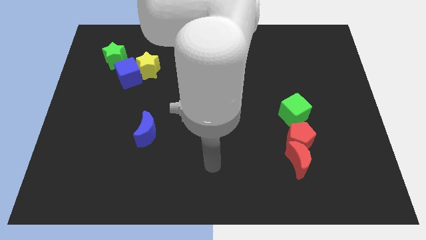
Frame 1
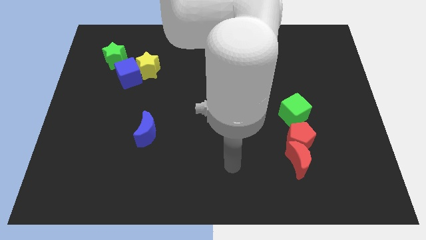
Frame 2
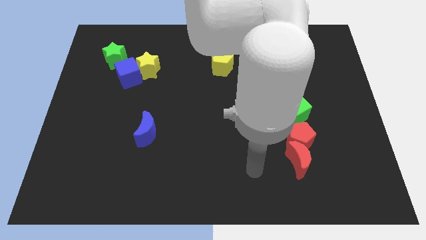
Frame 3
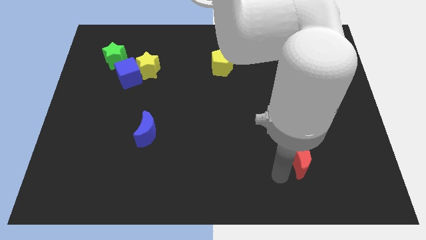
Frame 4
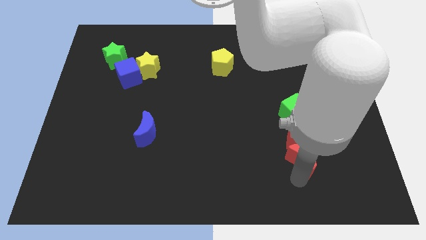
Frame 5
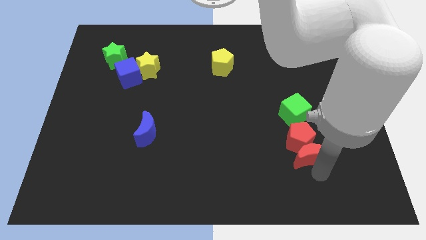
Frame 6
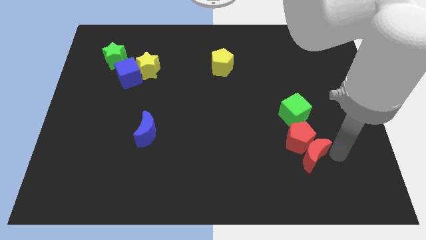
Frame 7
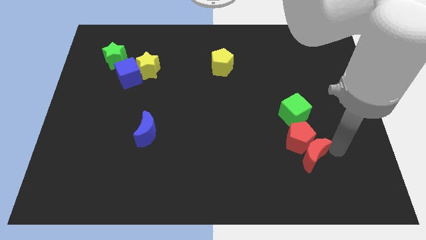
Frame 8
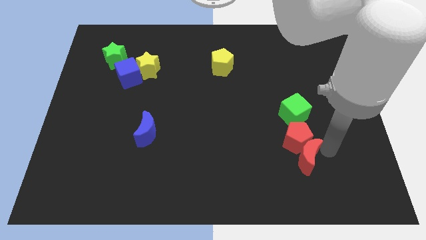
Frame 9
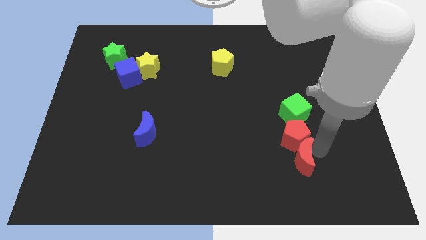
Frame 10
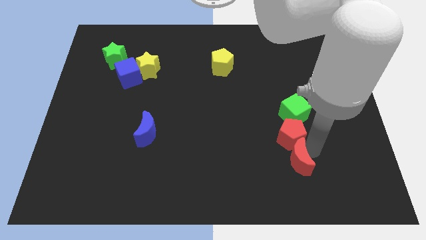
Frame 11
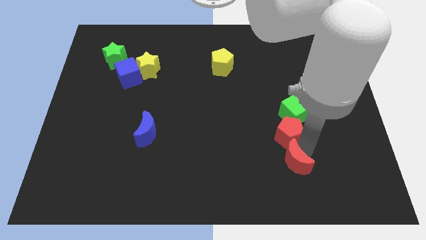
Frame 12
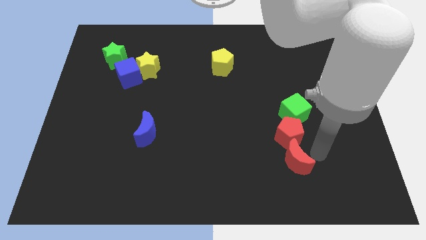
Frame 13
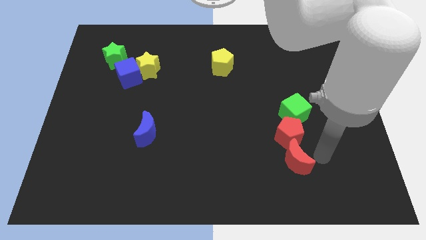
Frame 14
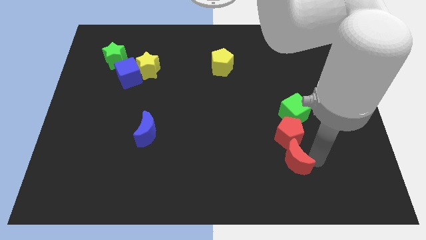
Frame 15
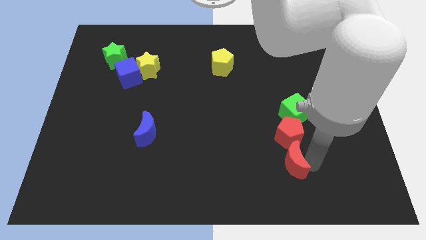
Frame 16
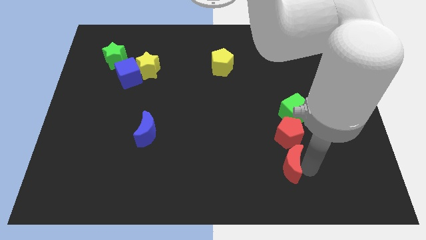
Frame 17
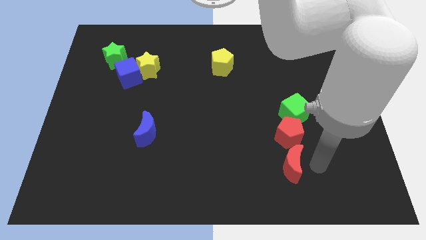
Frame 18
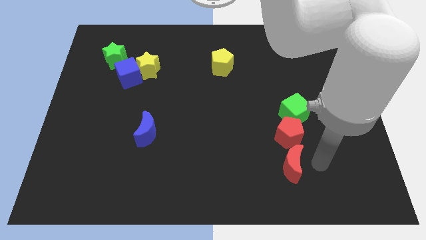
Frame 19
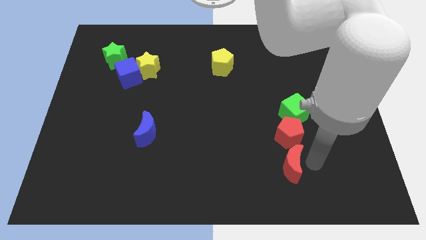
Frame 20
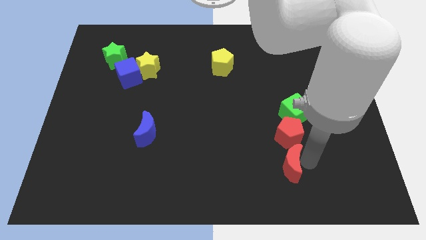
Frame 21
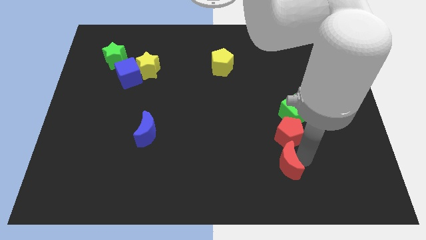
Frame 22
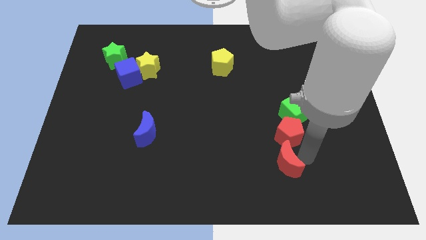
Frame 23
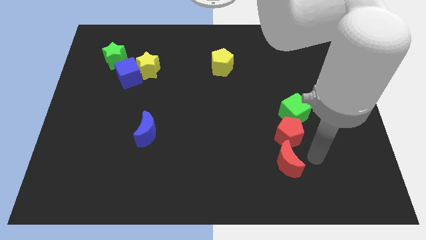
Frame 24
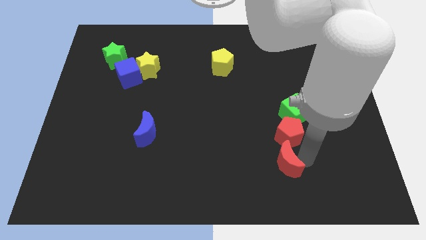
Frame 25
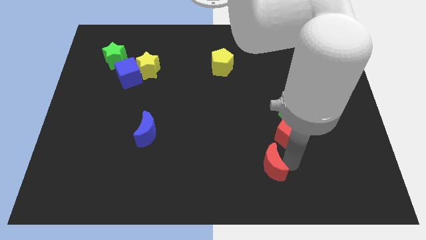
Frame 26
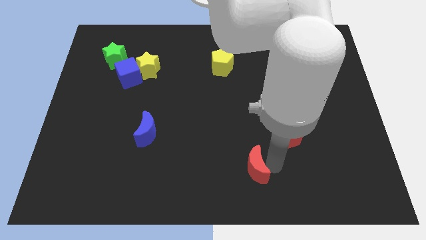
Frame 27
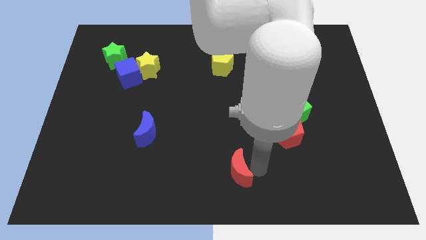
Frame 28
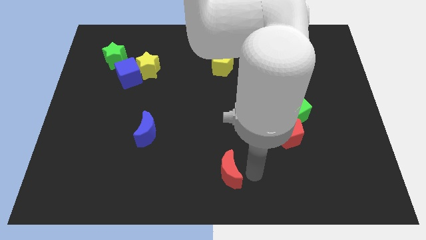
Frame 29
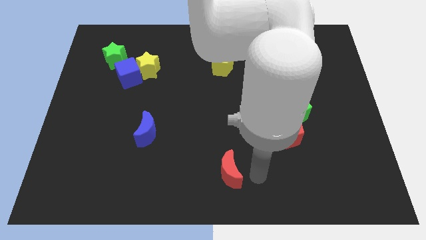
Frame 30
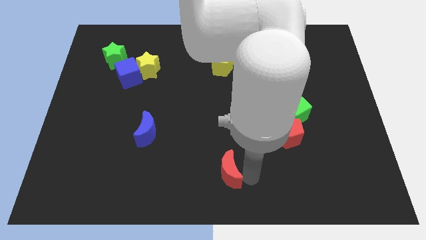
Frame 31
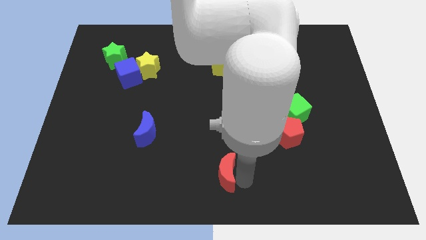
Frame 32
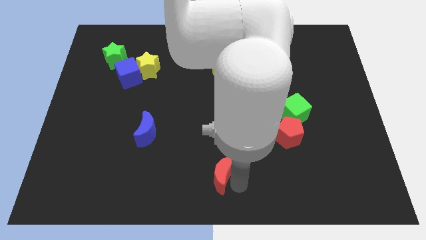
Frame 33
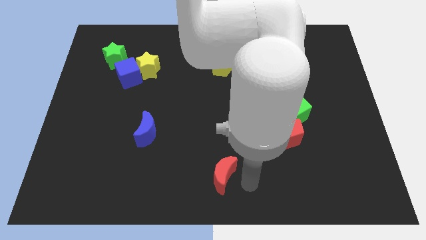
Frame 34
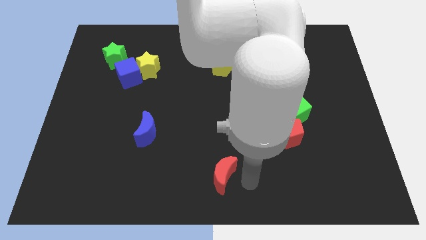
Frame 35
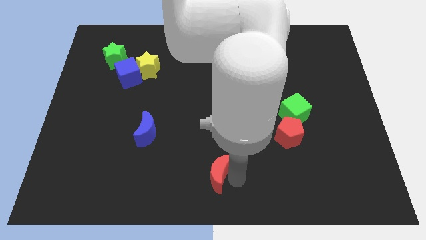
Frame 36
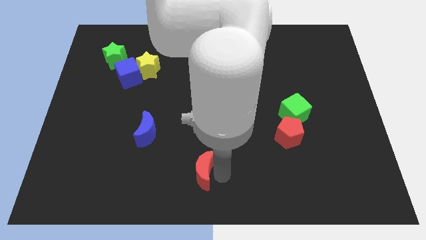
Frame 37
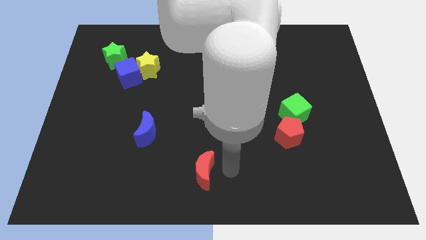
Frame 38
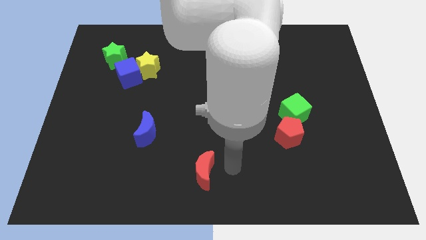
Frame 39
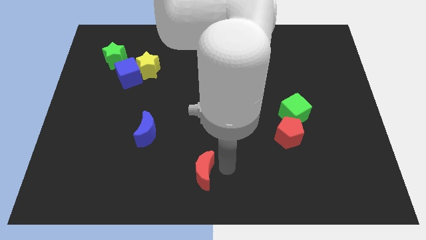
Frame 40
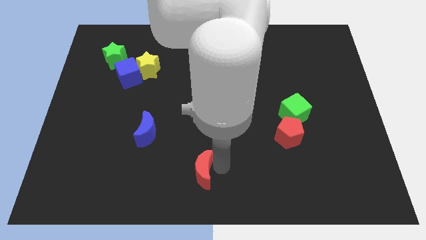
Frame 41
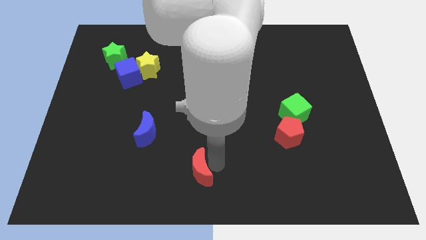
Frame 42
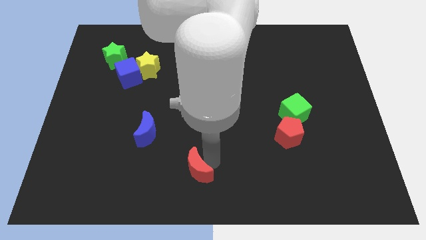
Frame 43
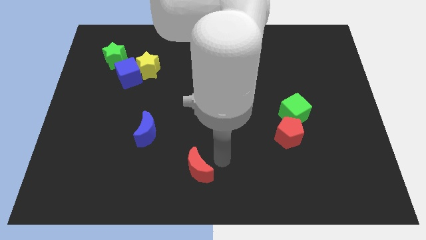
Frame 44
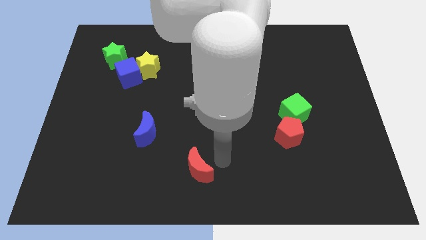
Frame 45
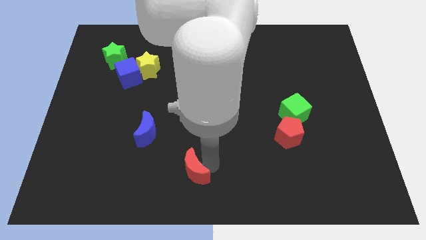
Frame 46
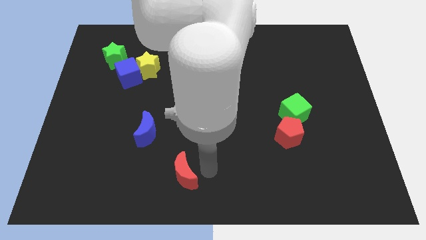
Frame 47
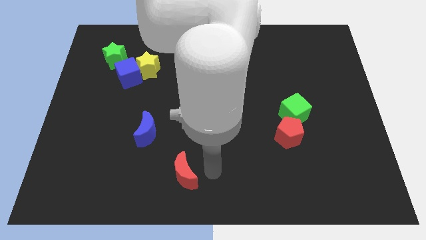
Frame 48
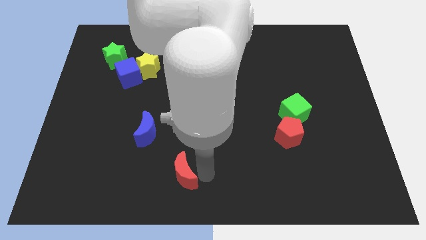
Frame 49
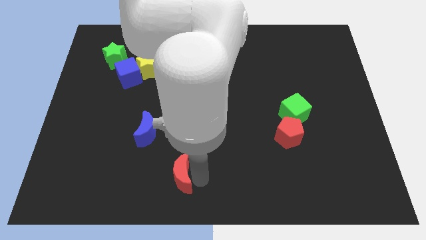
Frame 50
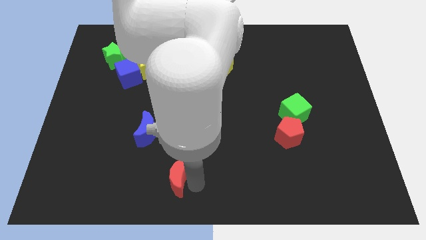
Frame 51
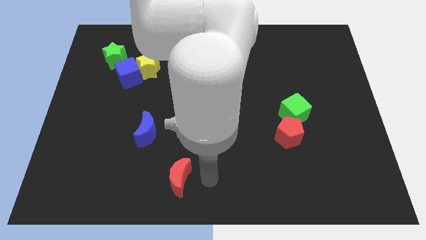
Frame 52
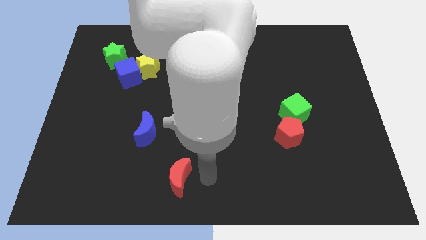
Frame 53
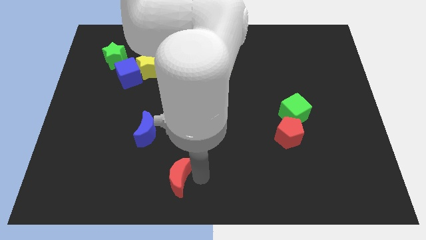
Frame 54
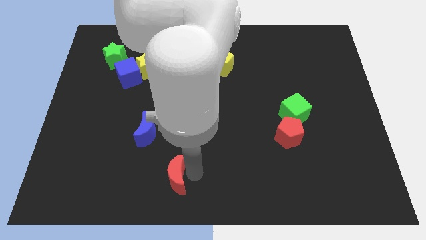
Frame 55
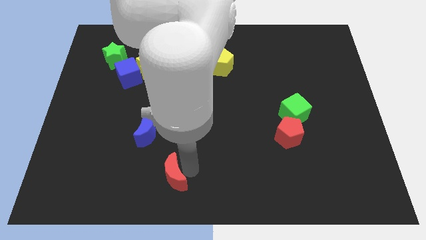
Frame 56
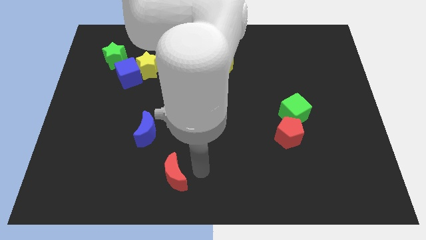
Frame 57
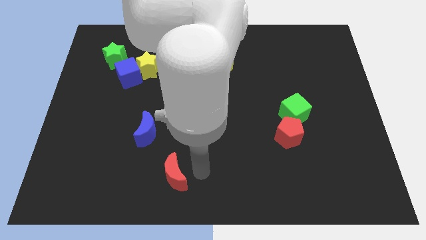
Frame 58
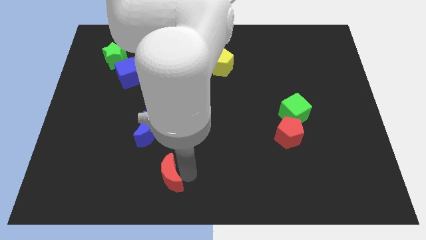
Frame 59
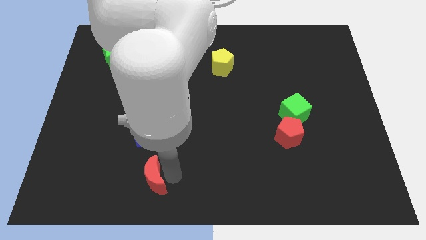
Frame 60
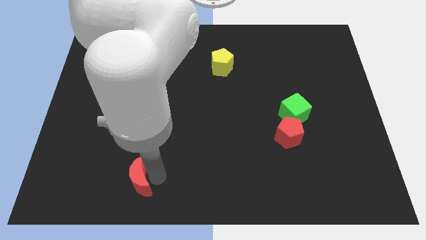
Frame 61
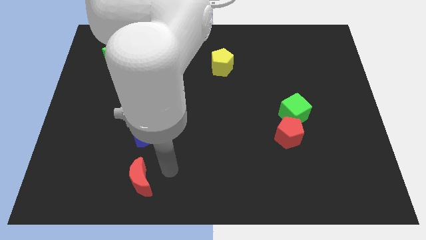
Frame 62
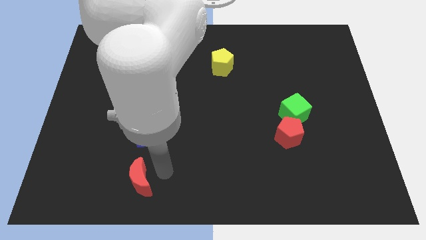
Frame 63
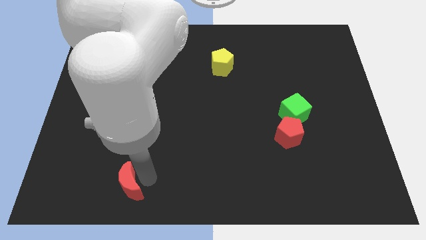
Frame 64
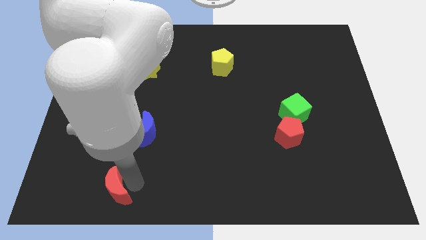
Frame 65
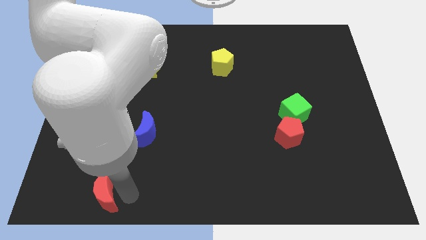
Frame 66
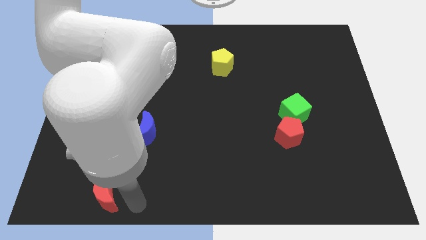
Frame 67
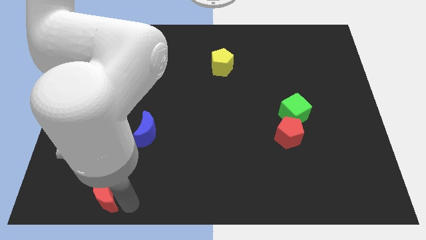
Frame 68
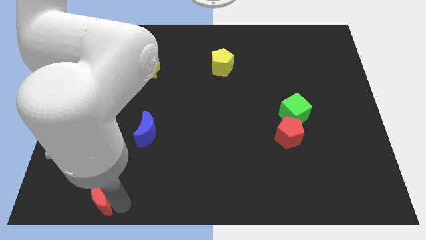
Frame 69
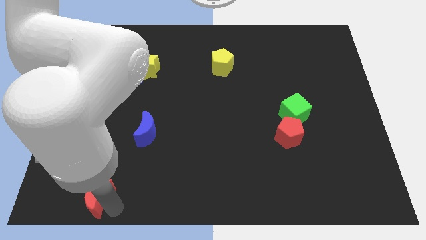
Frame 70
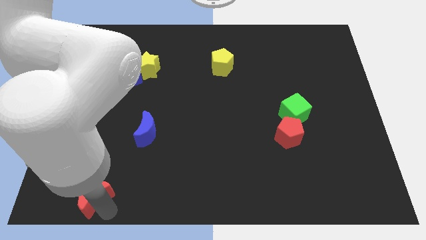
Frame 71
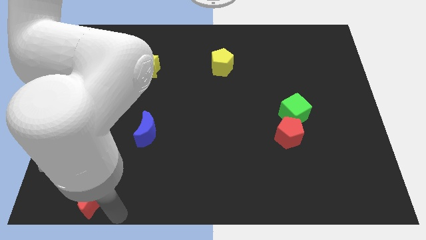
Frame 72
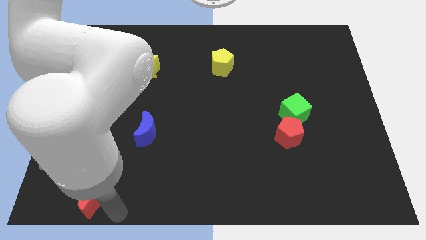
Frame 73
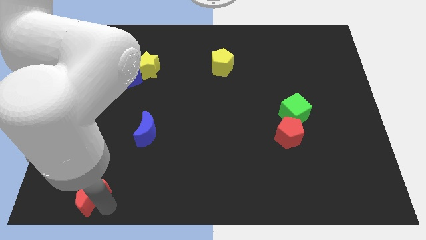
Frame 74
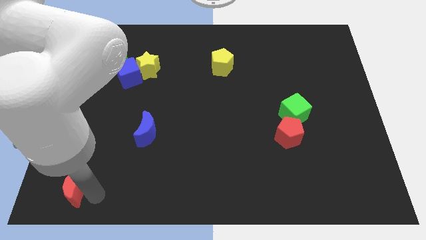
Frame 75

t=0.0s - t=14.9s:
push the red moon to the bottom left of the board
